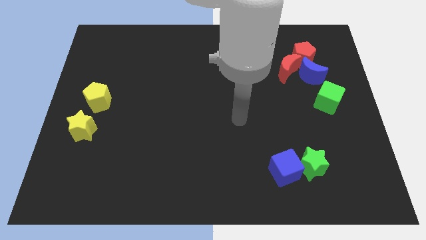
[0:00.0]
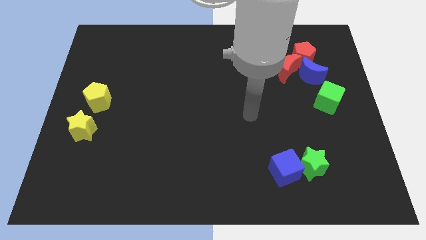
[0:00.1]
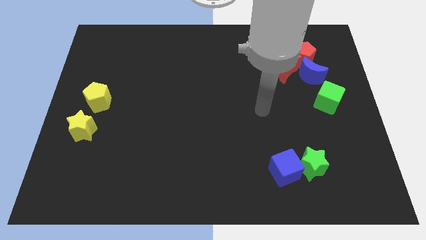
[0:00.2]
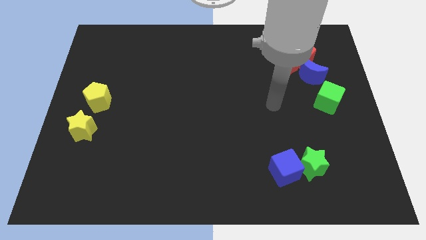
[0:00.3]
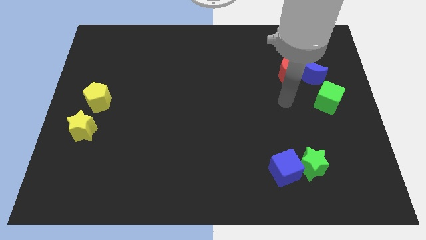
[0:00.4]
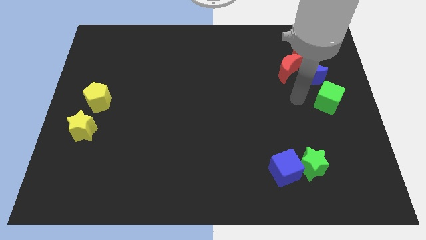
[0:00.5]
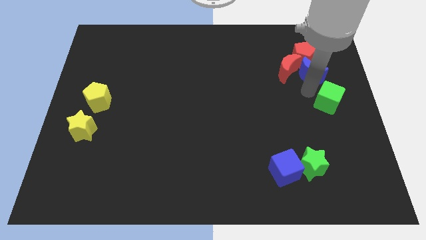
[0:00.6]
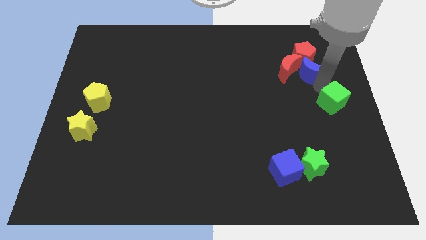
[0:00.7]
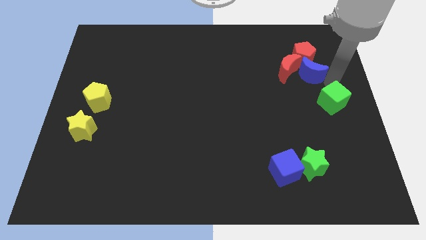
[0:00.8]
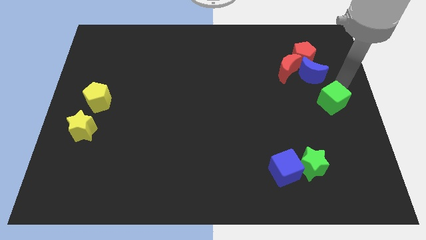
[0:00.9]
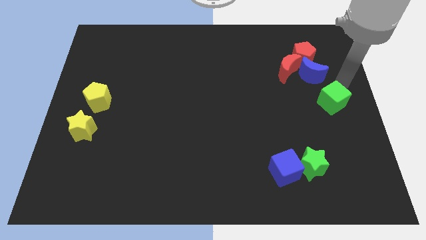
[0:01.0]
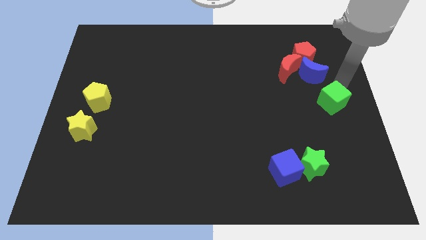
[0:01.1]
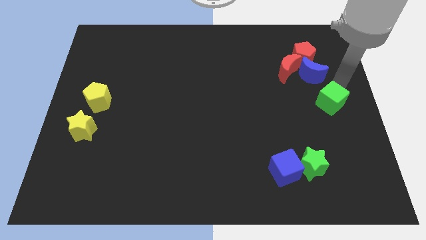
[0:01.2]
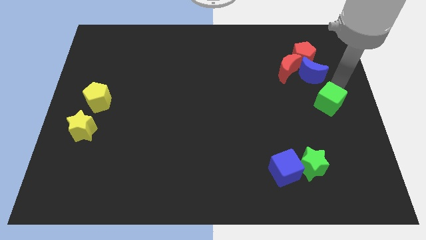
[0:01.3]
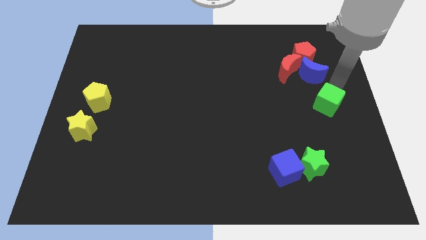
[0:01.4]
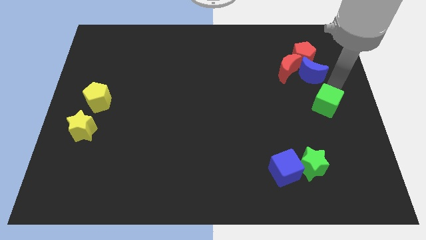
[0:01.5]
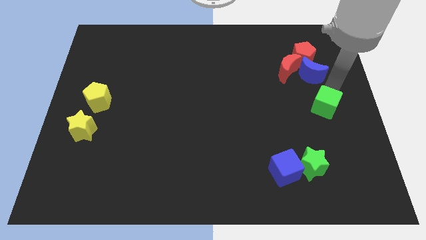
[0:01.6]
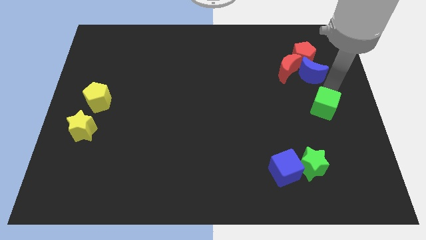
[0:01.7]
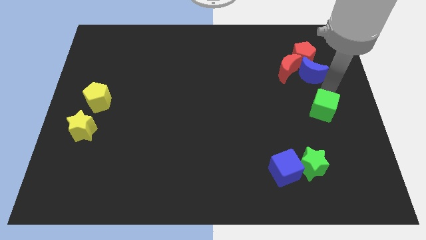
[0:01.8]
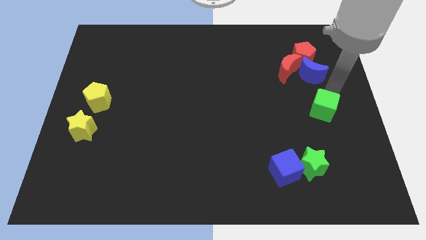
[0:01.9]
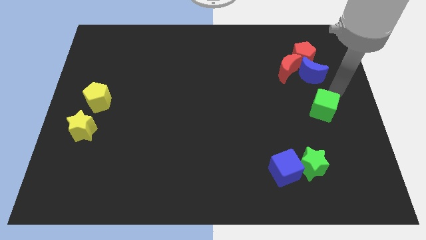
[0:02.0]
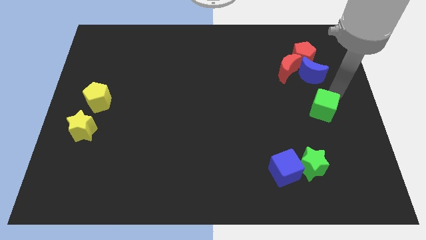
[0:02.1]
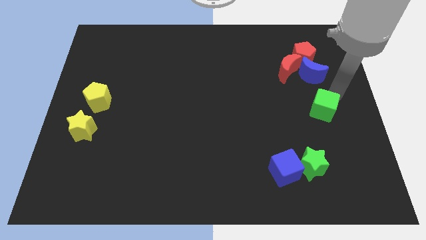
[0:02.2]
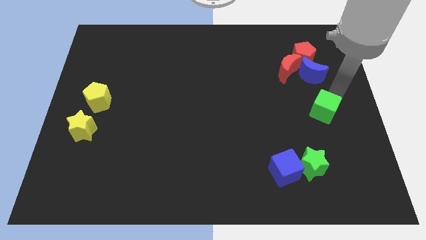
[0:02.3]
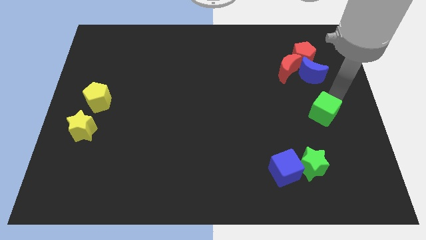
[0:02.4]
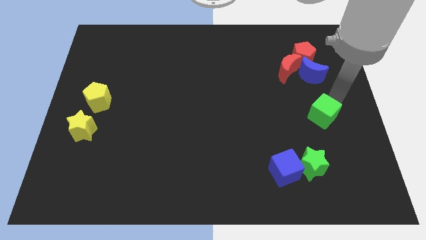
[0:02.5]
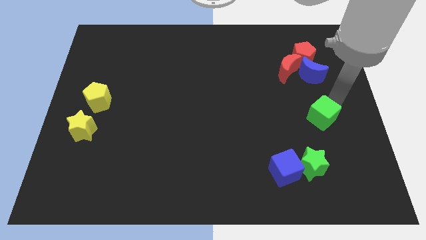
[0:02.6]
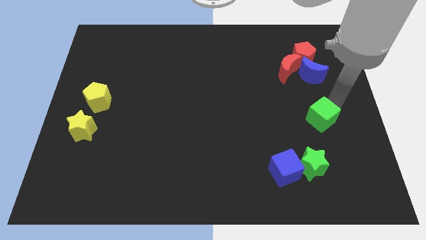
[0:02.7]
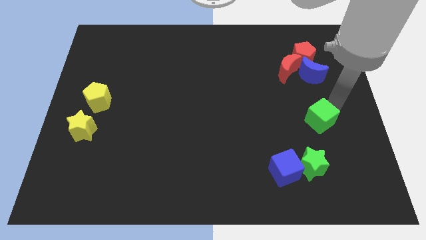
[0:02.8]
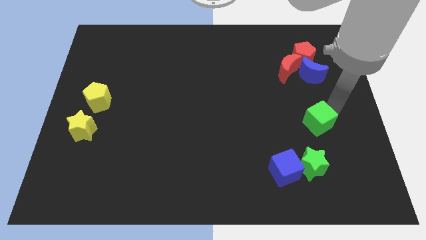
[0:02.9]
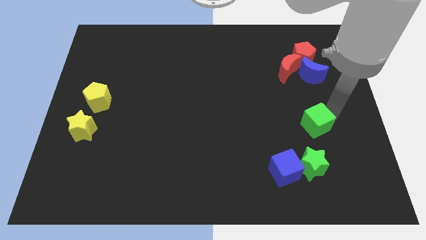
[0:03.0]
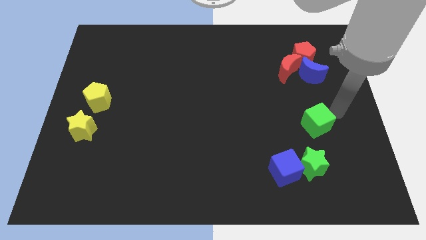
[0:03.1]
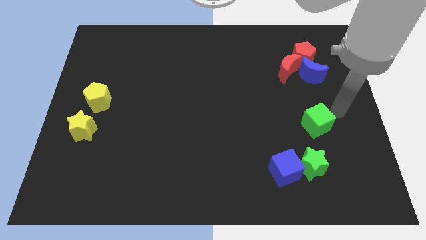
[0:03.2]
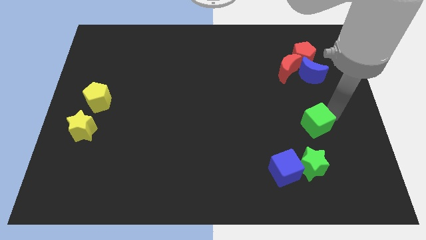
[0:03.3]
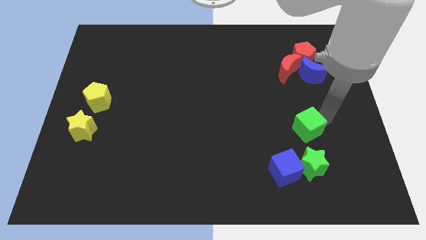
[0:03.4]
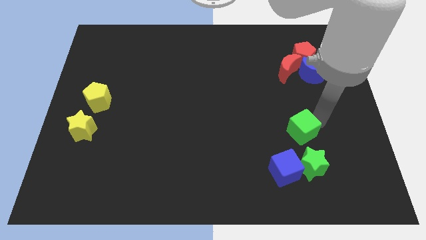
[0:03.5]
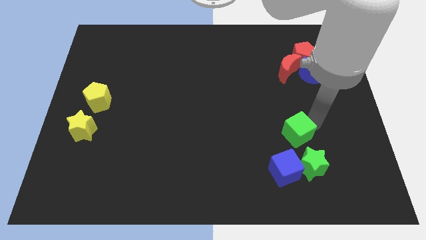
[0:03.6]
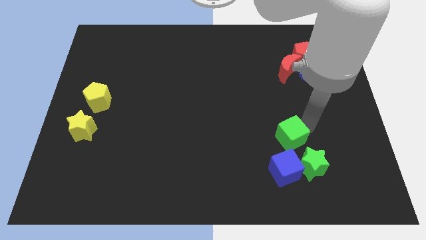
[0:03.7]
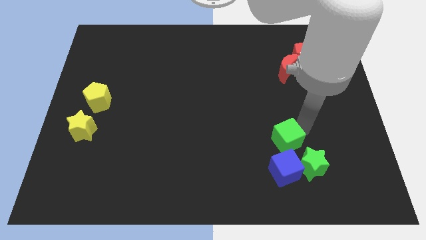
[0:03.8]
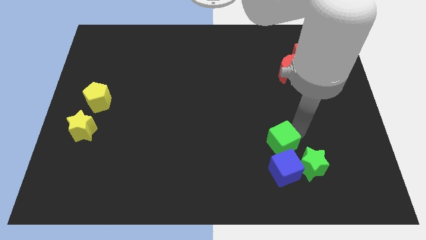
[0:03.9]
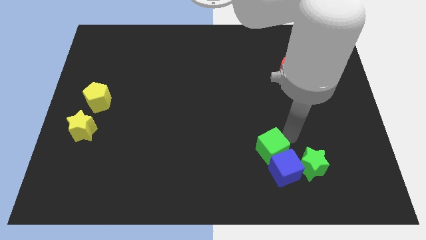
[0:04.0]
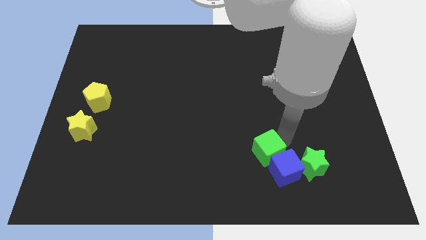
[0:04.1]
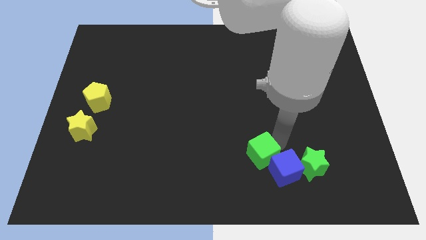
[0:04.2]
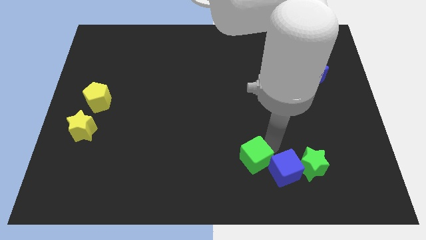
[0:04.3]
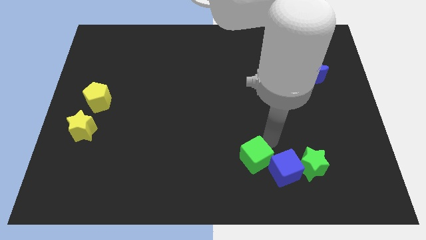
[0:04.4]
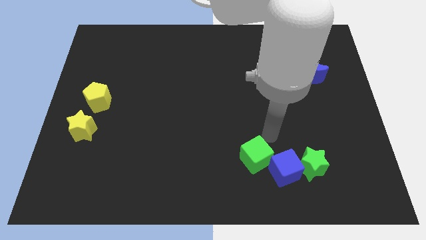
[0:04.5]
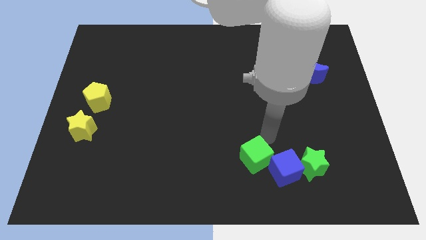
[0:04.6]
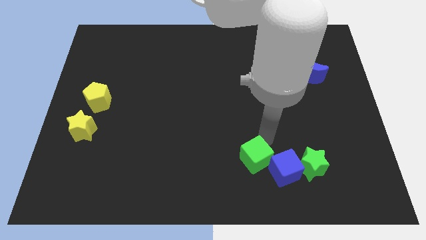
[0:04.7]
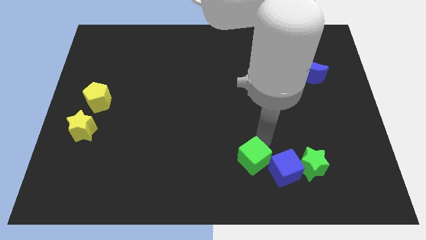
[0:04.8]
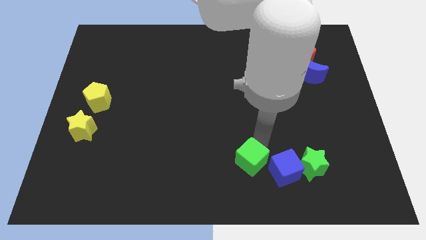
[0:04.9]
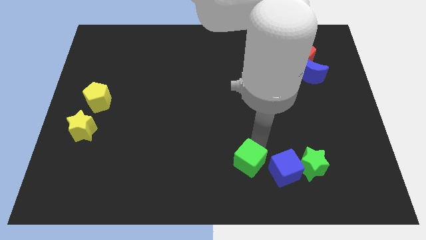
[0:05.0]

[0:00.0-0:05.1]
put the green cube to the bottom side

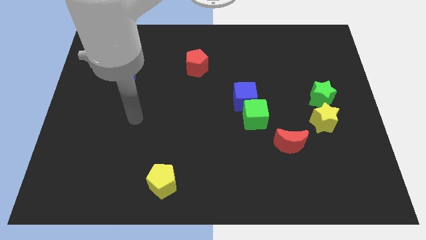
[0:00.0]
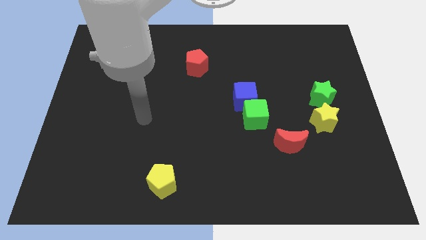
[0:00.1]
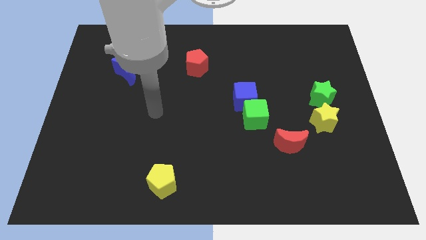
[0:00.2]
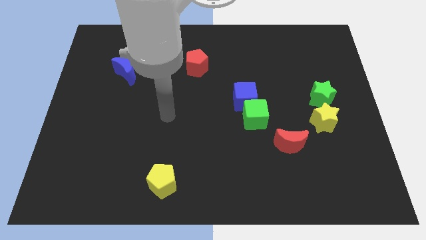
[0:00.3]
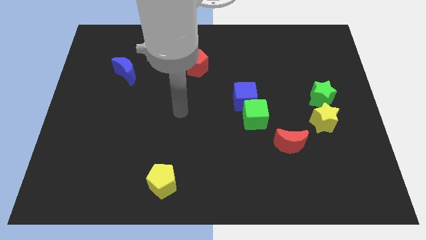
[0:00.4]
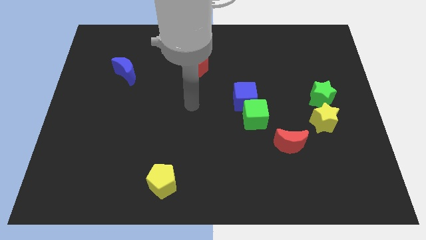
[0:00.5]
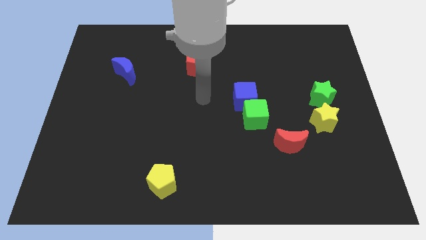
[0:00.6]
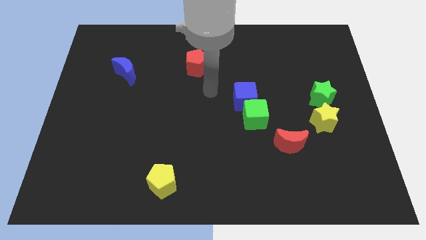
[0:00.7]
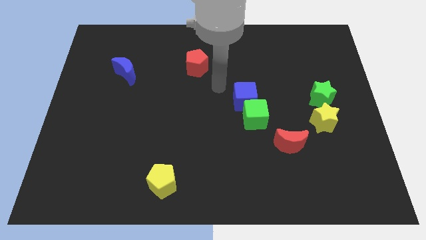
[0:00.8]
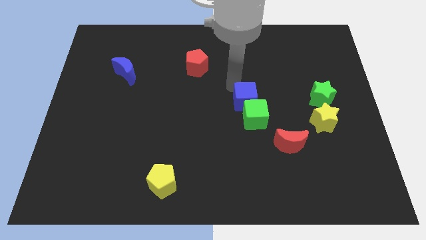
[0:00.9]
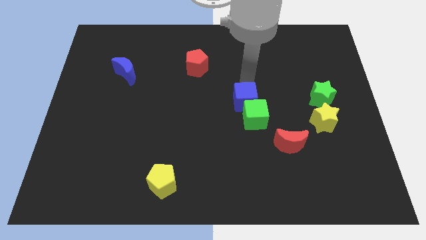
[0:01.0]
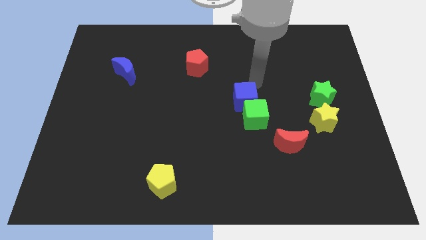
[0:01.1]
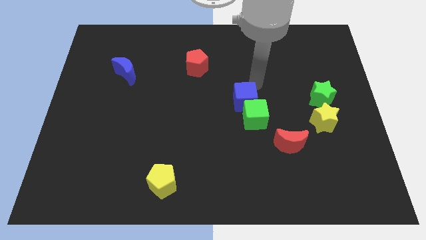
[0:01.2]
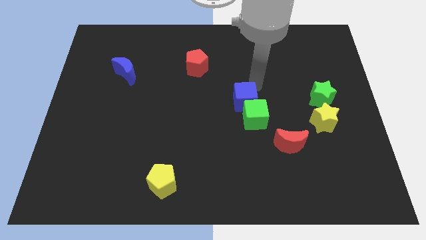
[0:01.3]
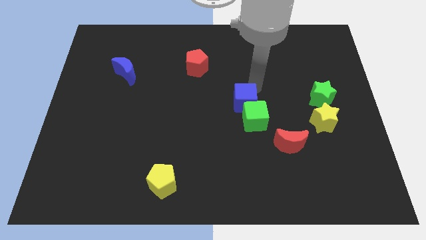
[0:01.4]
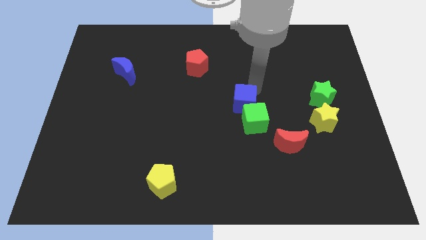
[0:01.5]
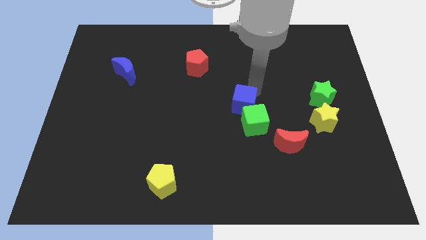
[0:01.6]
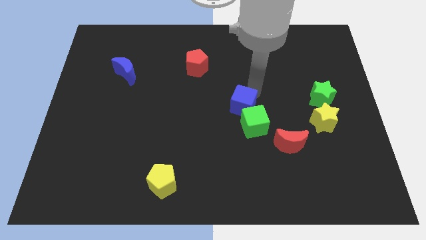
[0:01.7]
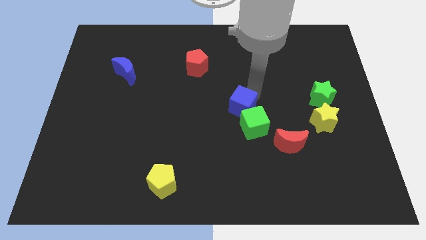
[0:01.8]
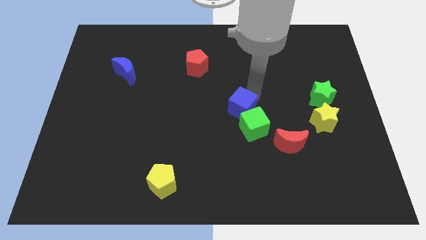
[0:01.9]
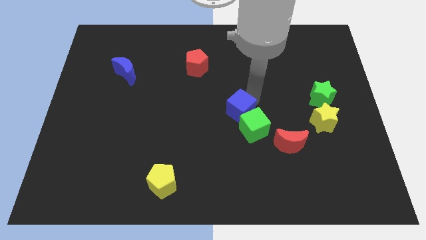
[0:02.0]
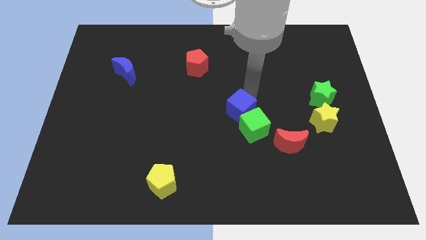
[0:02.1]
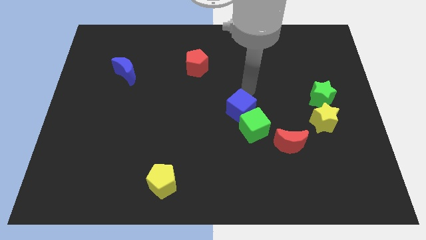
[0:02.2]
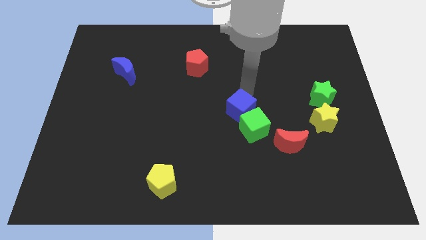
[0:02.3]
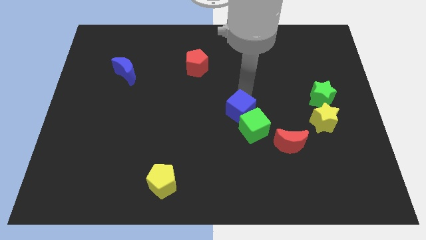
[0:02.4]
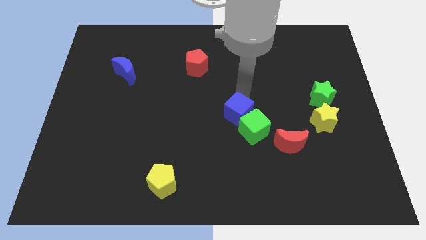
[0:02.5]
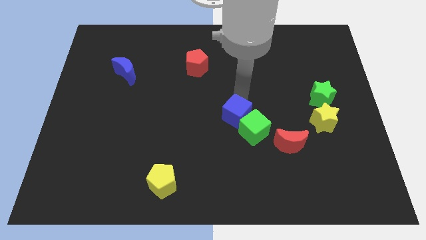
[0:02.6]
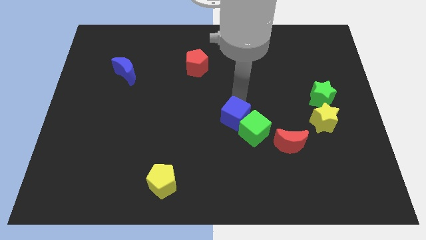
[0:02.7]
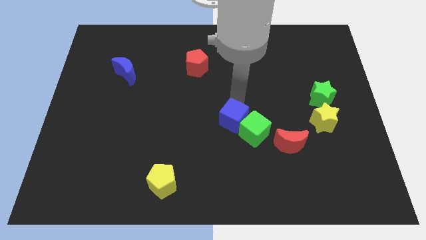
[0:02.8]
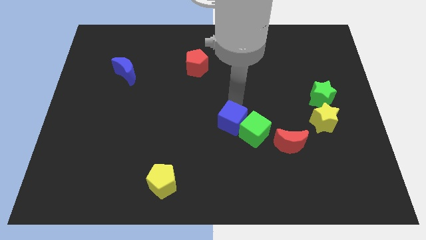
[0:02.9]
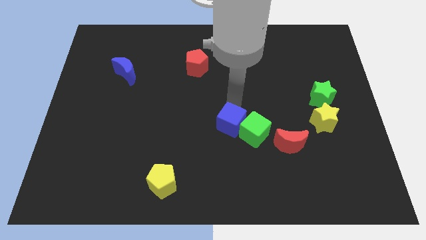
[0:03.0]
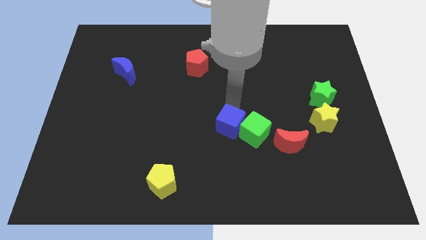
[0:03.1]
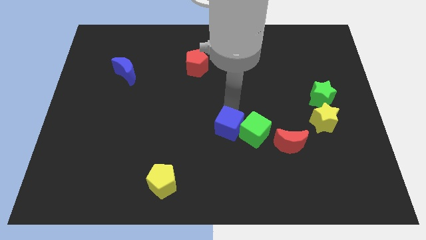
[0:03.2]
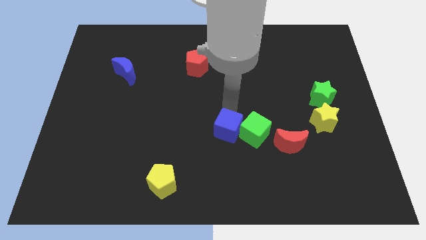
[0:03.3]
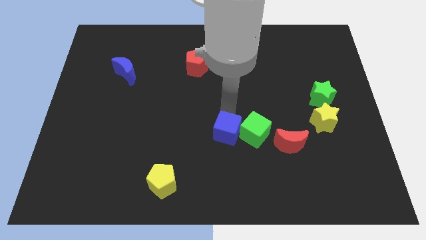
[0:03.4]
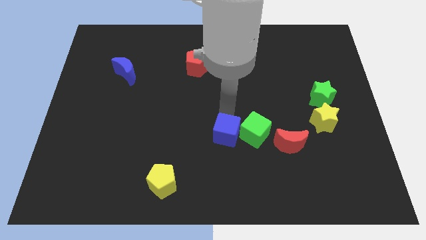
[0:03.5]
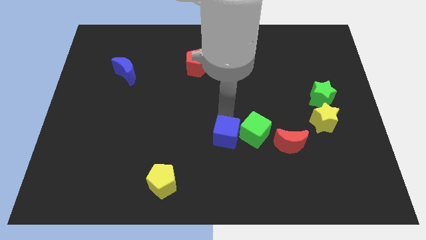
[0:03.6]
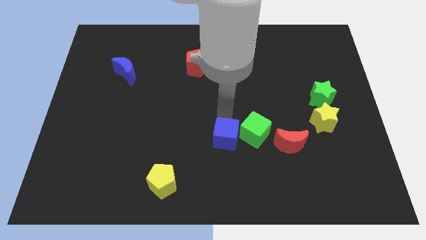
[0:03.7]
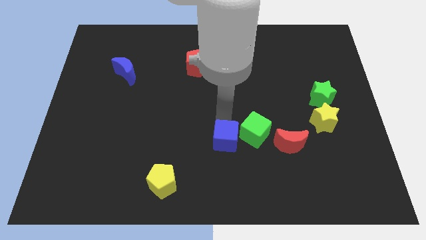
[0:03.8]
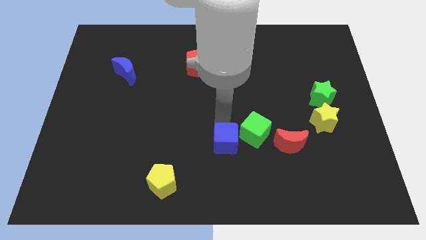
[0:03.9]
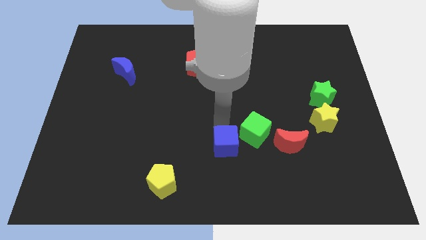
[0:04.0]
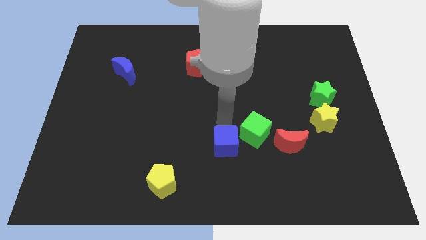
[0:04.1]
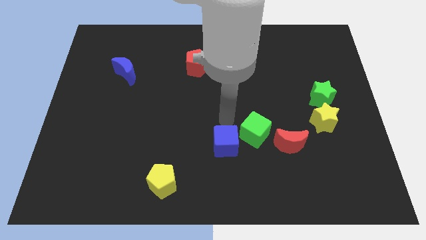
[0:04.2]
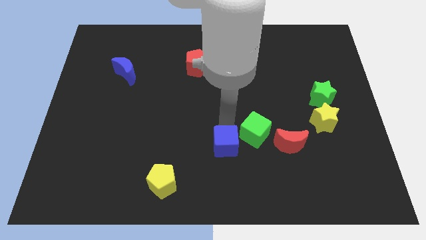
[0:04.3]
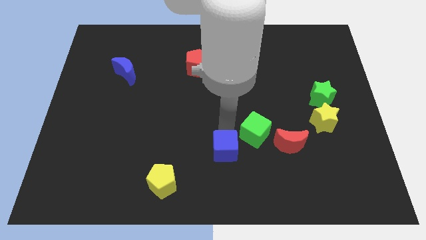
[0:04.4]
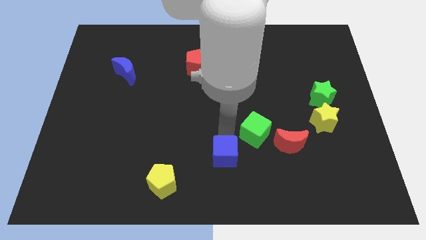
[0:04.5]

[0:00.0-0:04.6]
put the blue cube to the bottom
